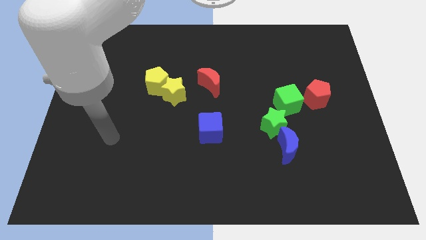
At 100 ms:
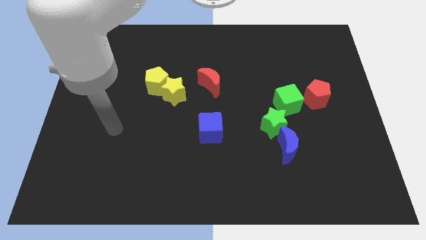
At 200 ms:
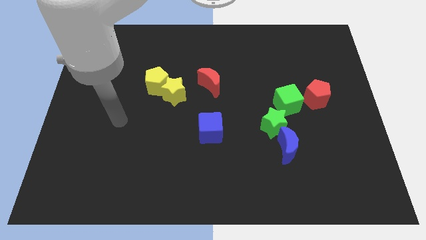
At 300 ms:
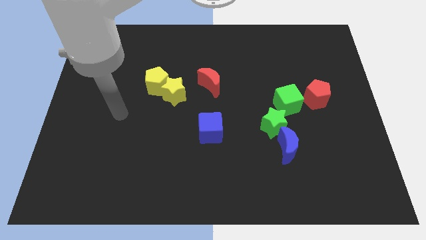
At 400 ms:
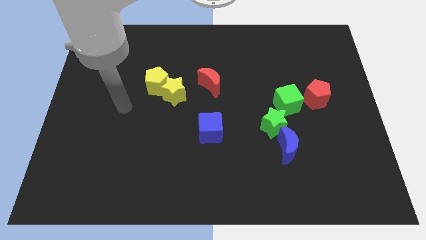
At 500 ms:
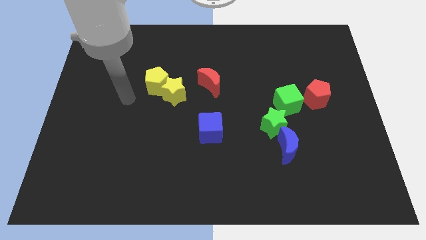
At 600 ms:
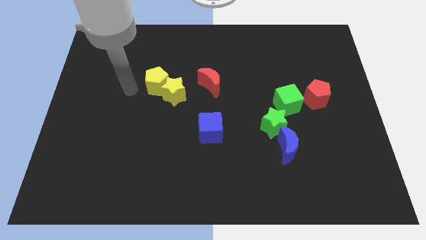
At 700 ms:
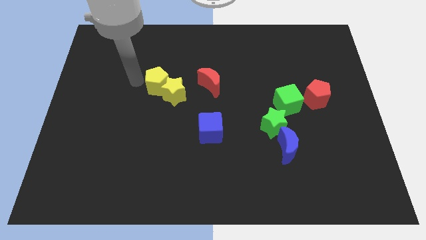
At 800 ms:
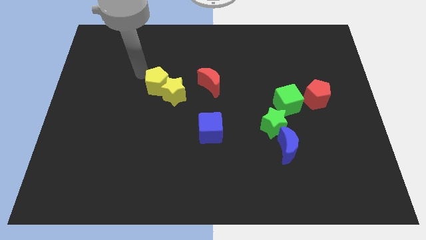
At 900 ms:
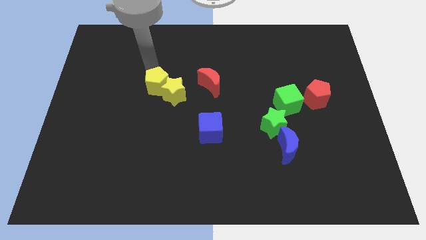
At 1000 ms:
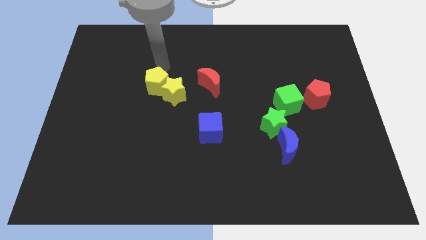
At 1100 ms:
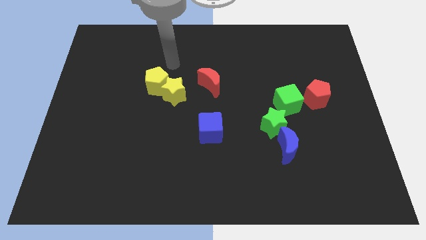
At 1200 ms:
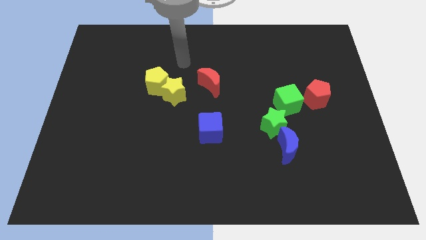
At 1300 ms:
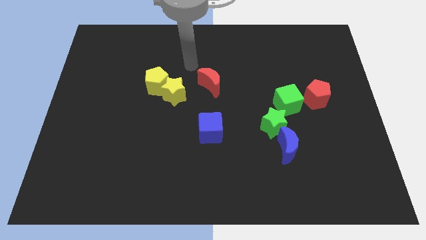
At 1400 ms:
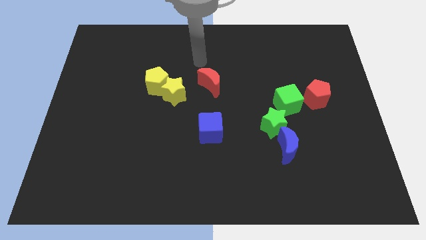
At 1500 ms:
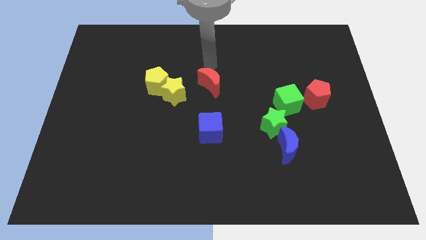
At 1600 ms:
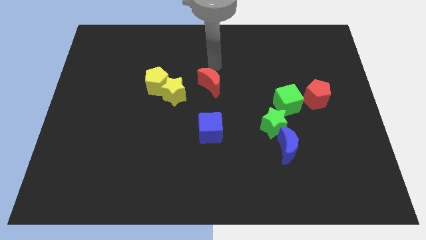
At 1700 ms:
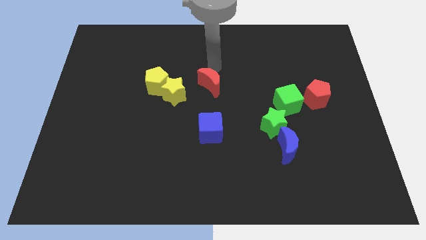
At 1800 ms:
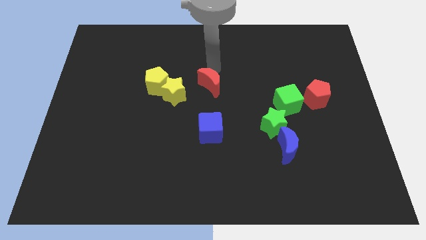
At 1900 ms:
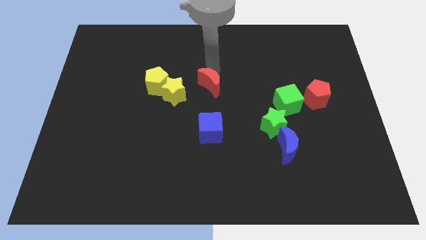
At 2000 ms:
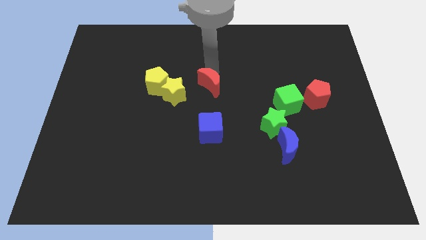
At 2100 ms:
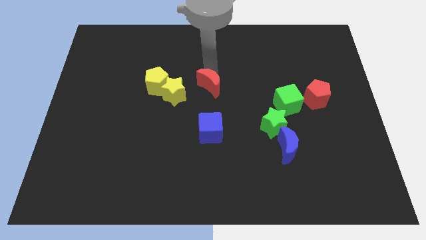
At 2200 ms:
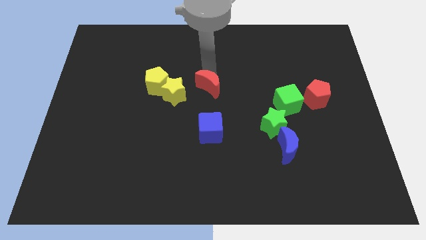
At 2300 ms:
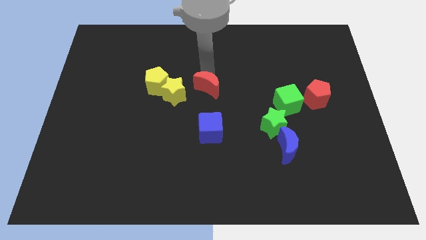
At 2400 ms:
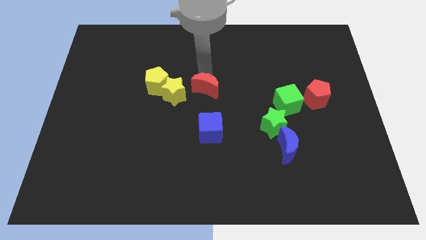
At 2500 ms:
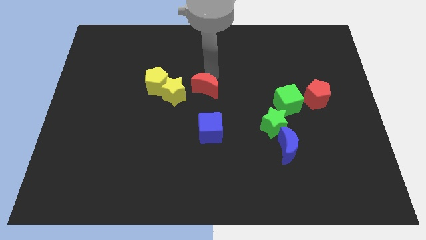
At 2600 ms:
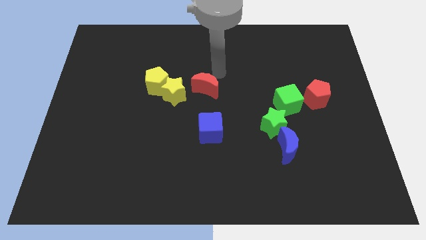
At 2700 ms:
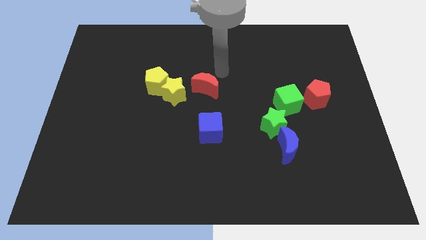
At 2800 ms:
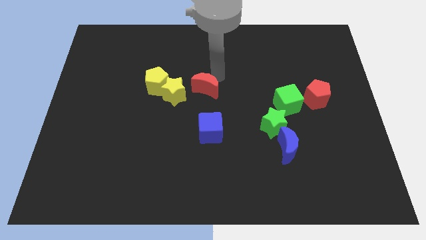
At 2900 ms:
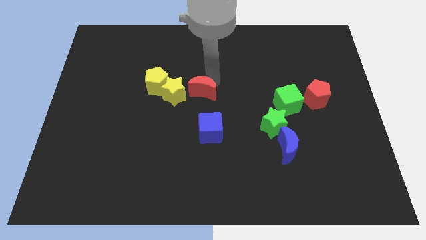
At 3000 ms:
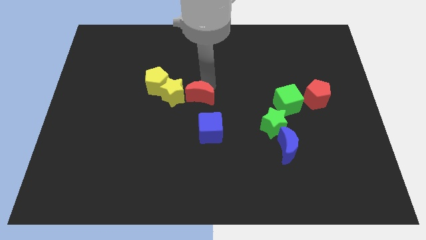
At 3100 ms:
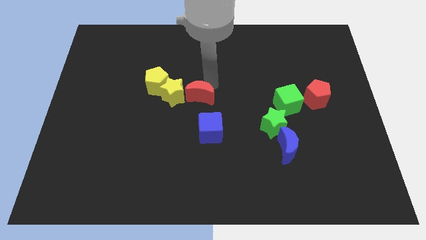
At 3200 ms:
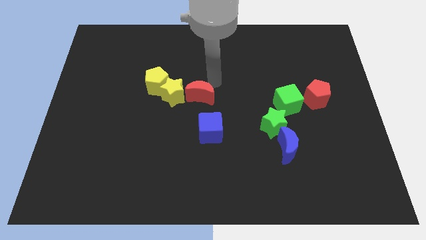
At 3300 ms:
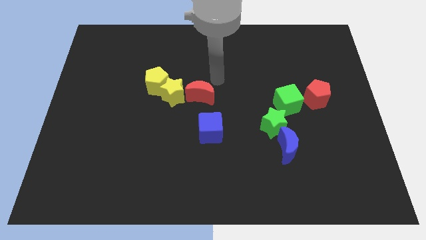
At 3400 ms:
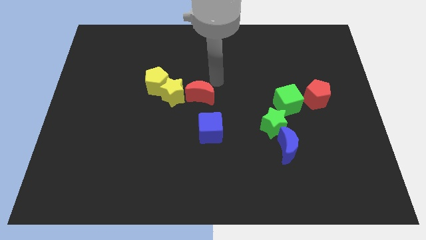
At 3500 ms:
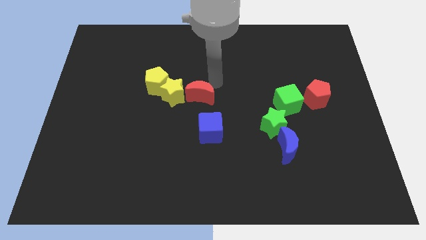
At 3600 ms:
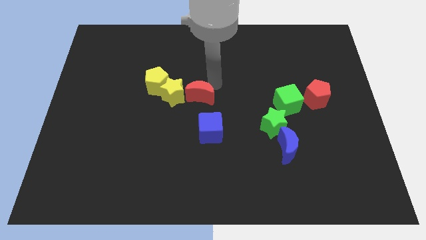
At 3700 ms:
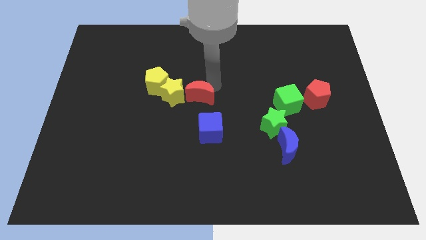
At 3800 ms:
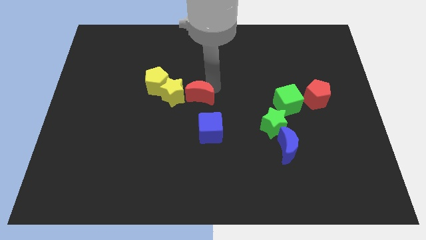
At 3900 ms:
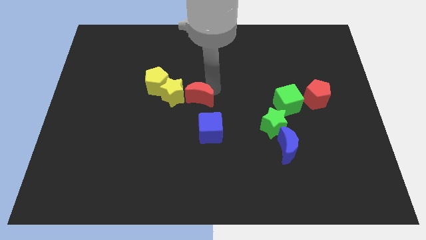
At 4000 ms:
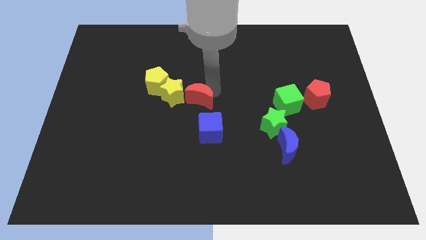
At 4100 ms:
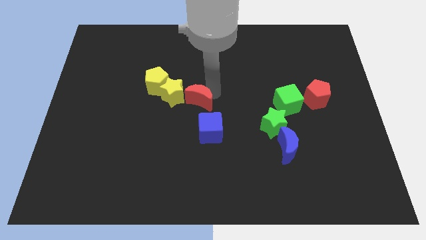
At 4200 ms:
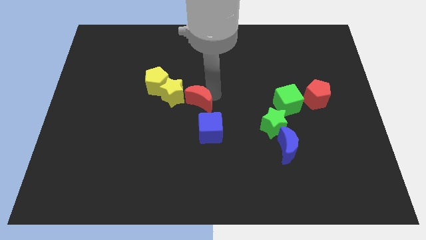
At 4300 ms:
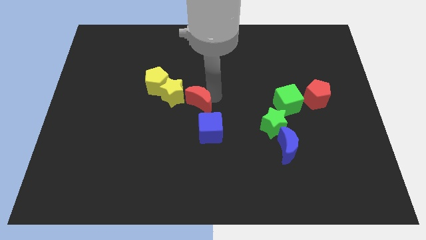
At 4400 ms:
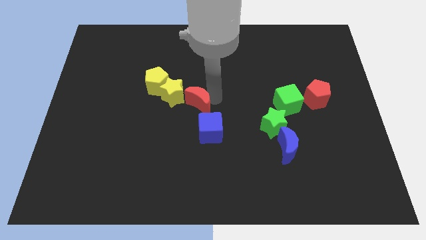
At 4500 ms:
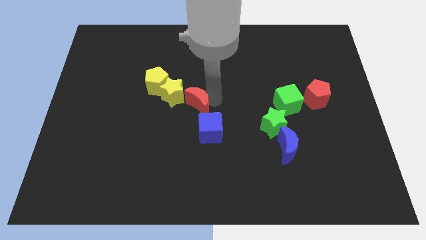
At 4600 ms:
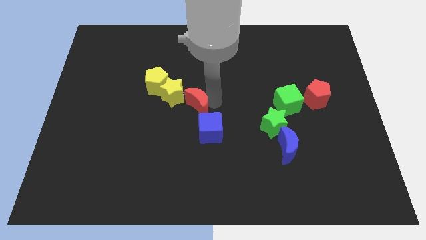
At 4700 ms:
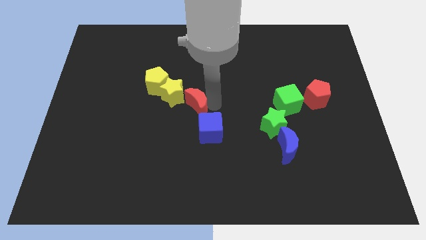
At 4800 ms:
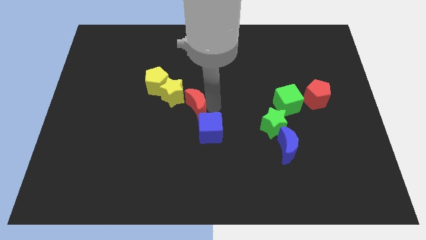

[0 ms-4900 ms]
slide the red moon somewhat down and to the left diagonally

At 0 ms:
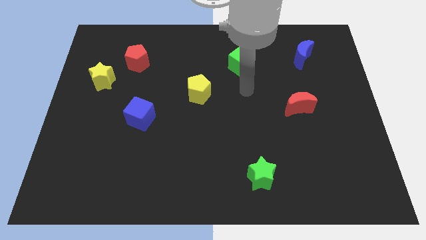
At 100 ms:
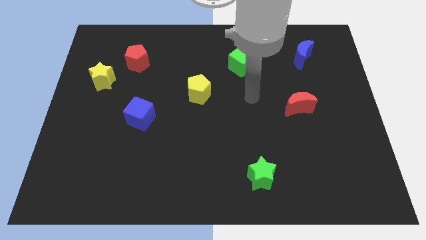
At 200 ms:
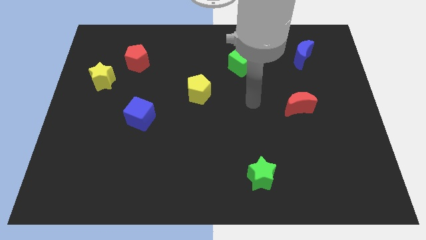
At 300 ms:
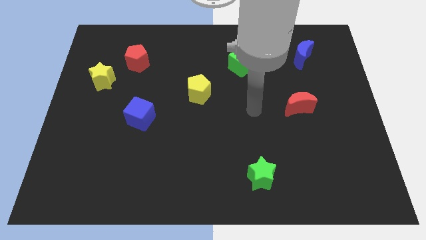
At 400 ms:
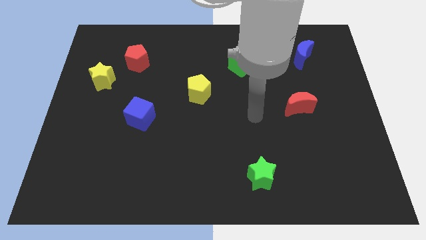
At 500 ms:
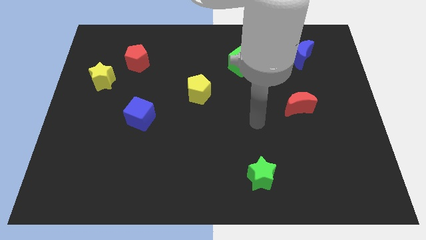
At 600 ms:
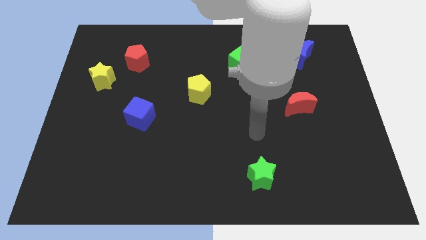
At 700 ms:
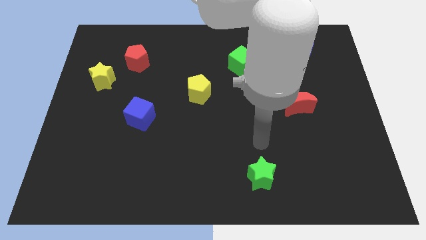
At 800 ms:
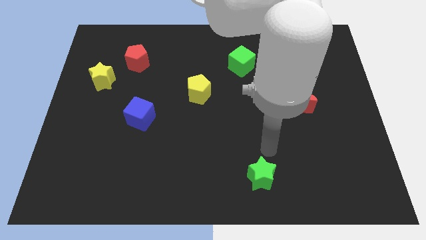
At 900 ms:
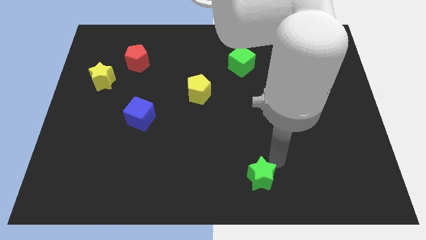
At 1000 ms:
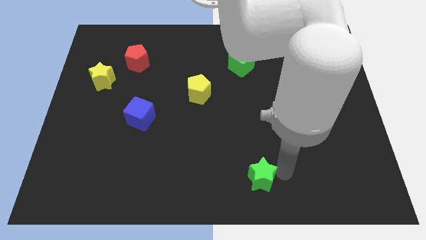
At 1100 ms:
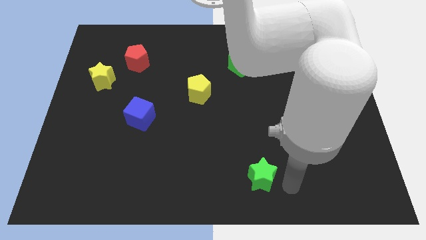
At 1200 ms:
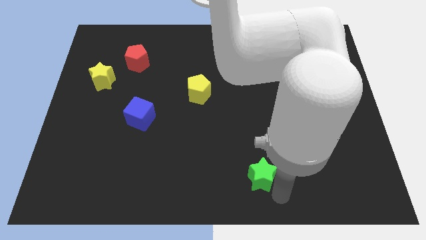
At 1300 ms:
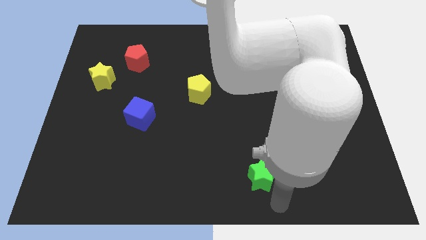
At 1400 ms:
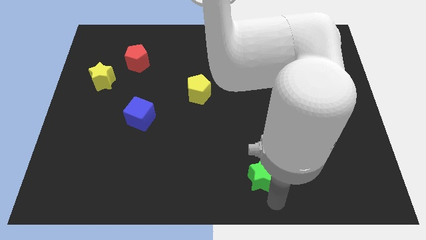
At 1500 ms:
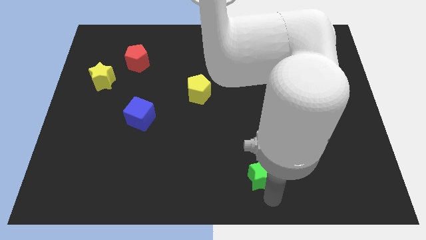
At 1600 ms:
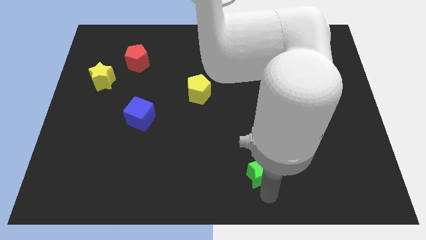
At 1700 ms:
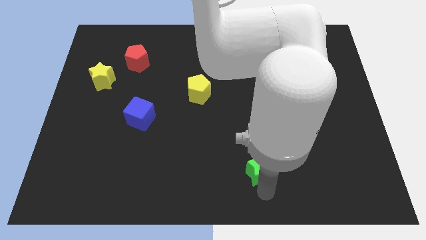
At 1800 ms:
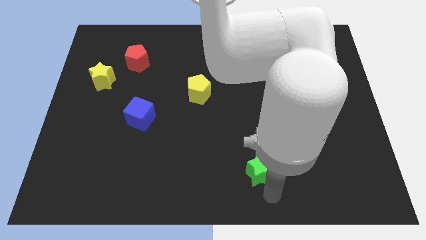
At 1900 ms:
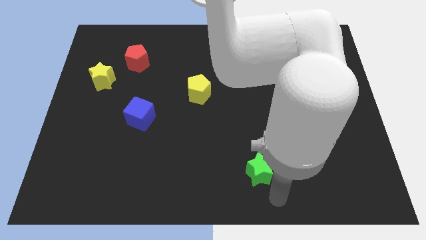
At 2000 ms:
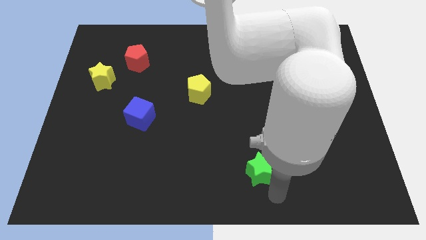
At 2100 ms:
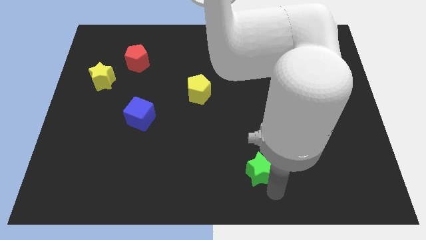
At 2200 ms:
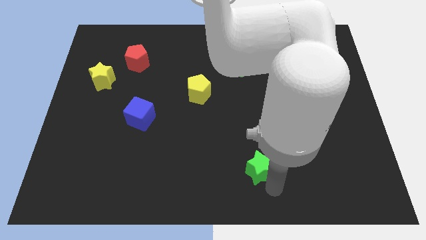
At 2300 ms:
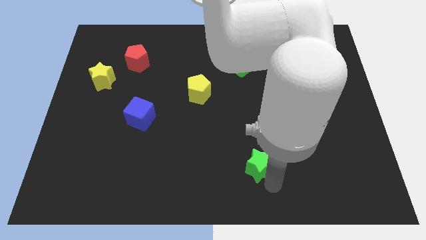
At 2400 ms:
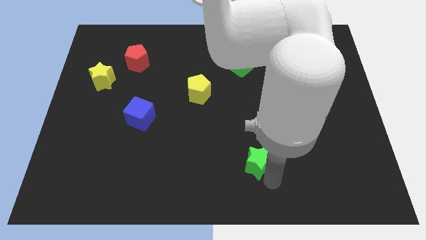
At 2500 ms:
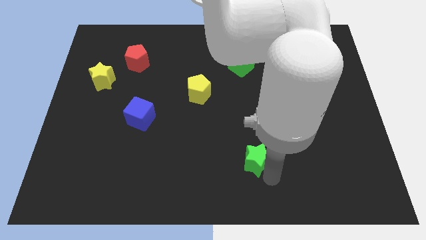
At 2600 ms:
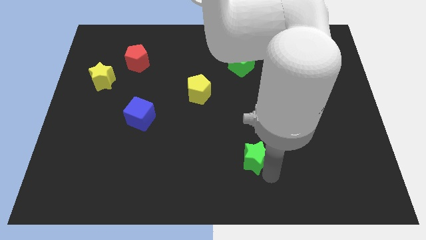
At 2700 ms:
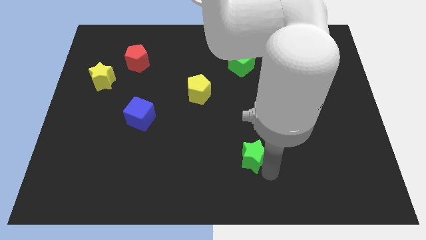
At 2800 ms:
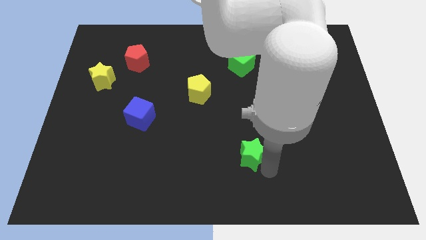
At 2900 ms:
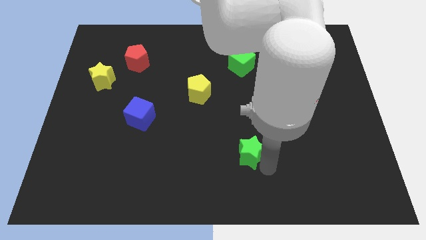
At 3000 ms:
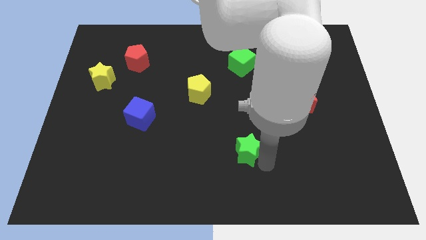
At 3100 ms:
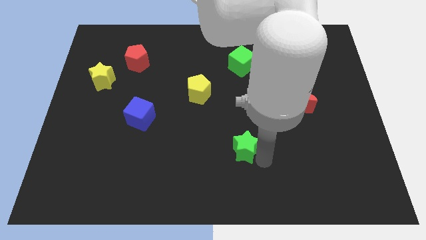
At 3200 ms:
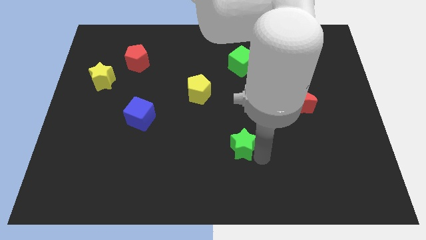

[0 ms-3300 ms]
slide the green star a bit up and then left
